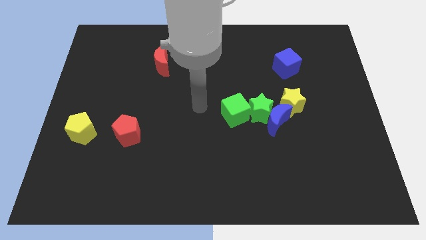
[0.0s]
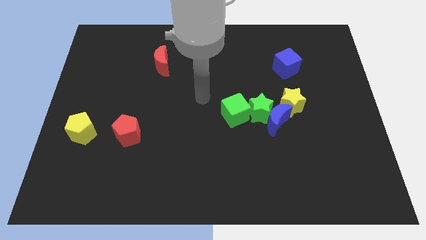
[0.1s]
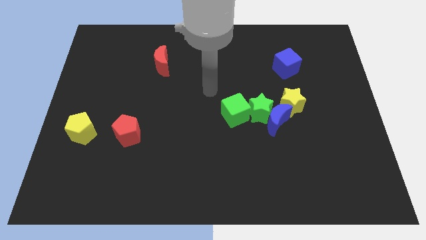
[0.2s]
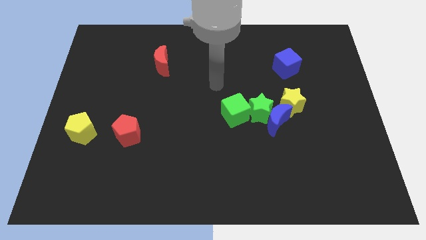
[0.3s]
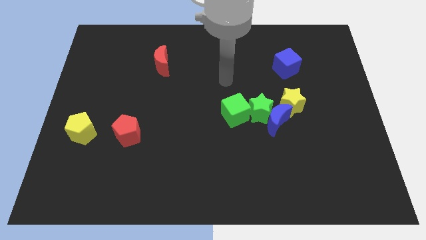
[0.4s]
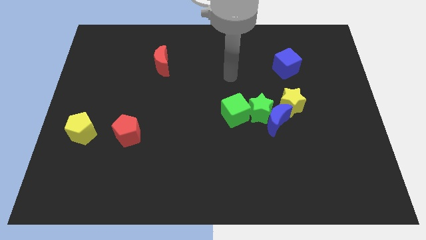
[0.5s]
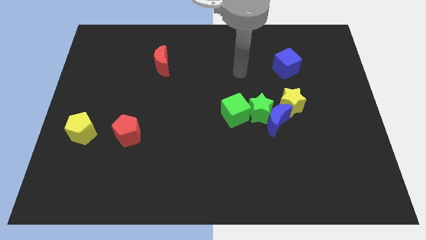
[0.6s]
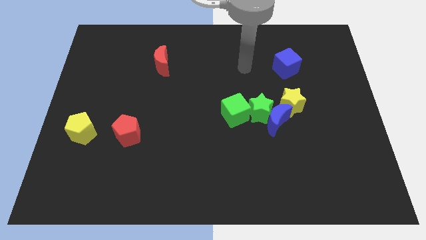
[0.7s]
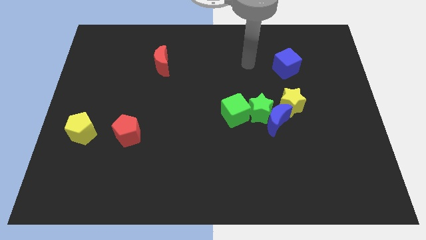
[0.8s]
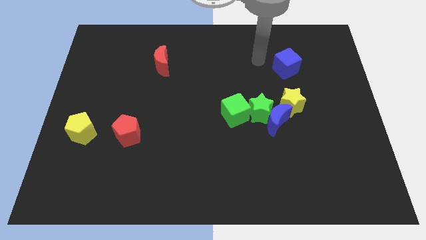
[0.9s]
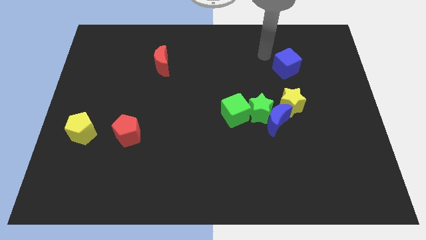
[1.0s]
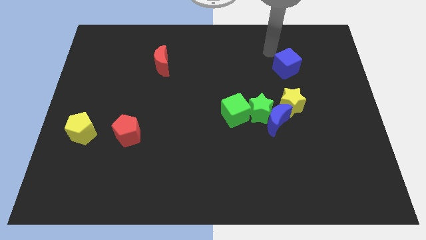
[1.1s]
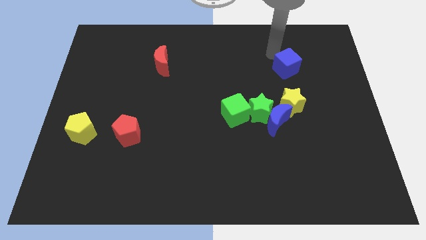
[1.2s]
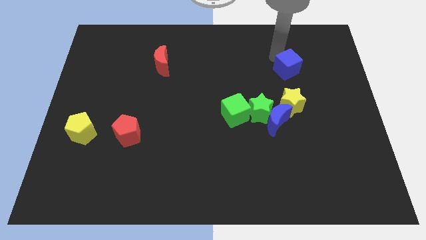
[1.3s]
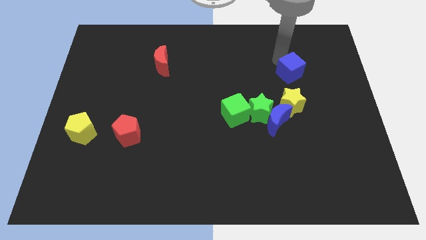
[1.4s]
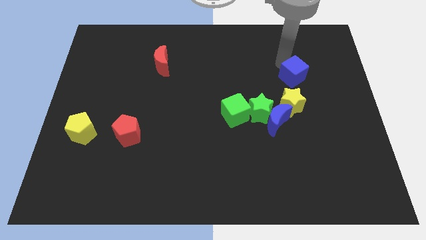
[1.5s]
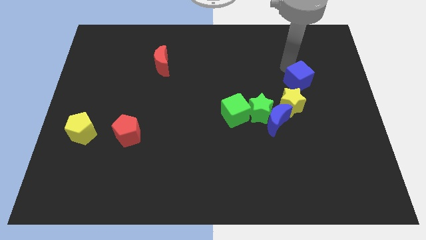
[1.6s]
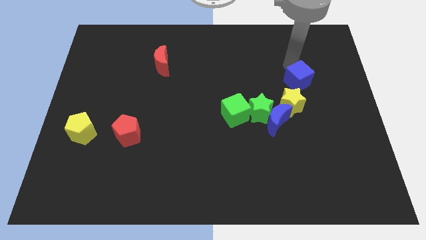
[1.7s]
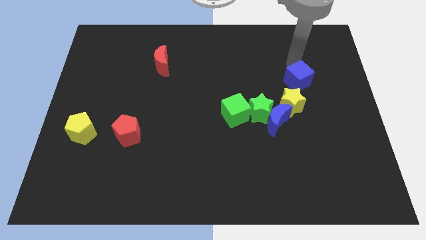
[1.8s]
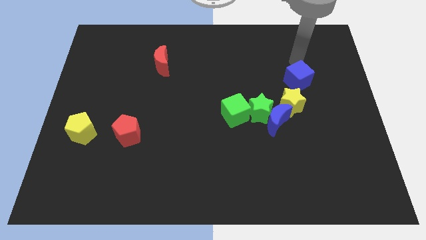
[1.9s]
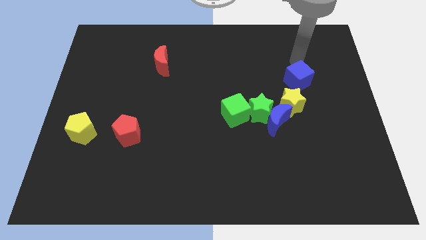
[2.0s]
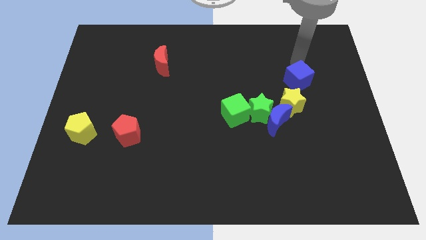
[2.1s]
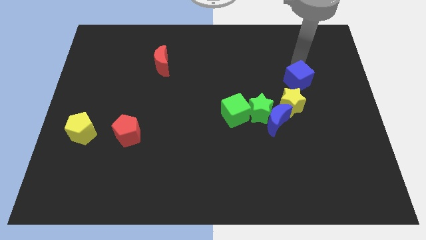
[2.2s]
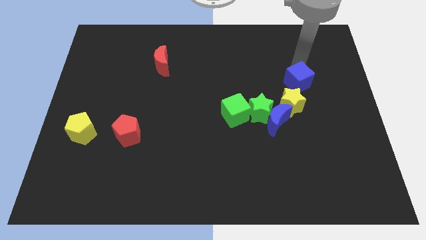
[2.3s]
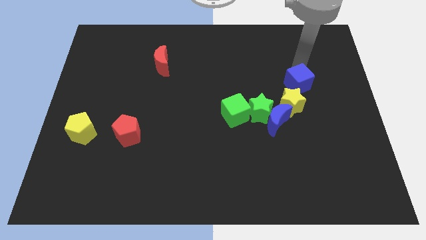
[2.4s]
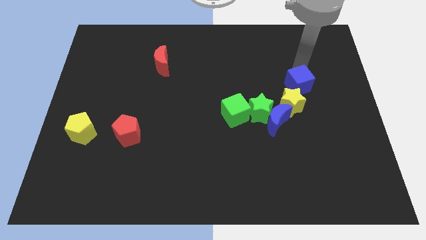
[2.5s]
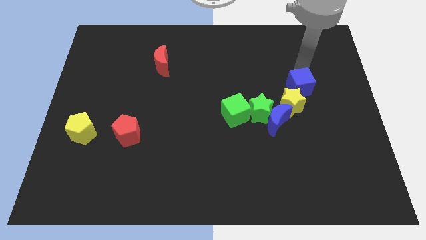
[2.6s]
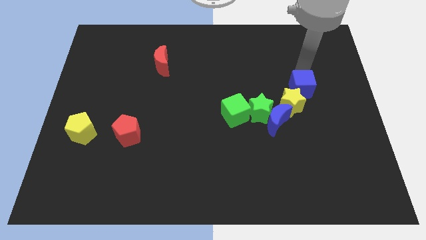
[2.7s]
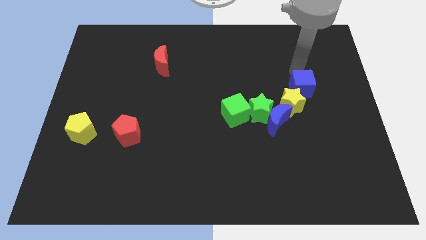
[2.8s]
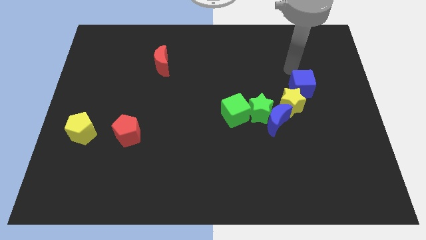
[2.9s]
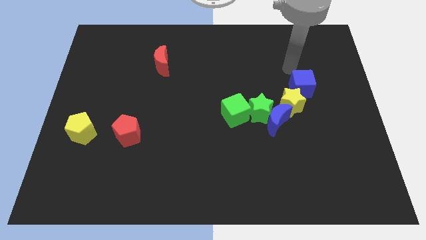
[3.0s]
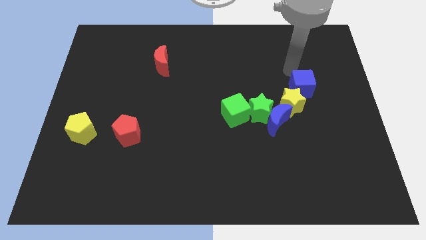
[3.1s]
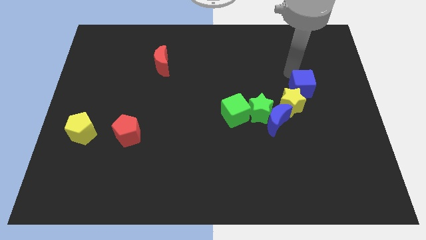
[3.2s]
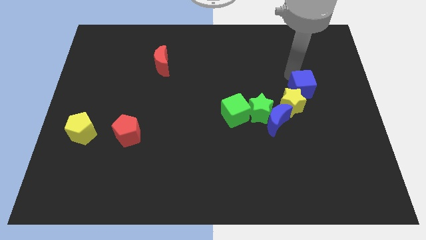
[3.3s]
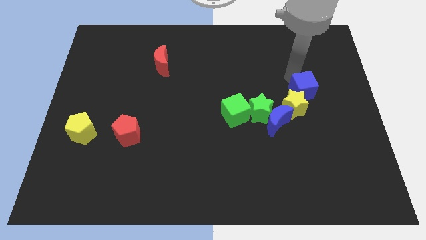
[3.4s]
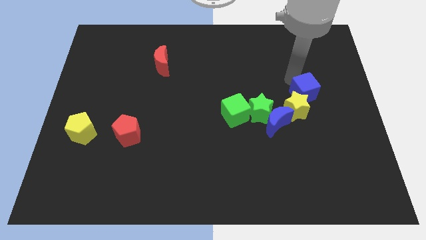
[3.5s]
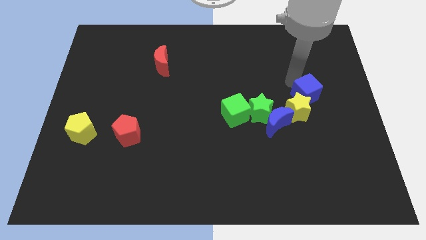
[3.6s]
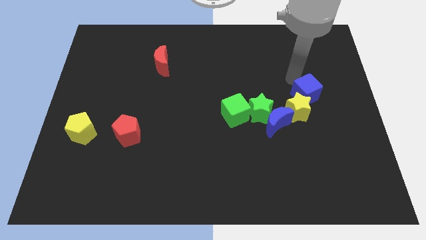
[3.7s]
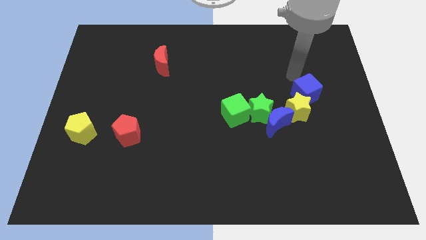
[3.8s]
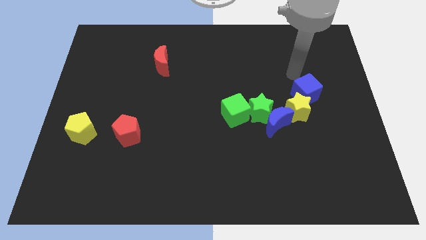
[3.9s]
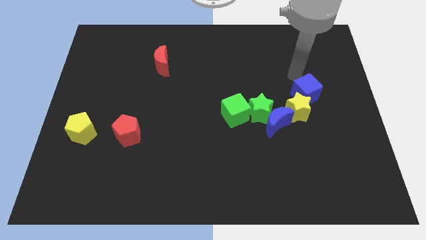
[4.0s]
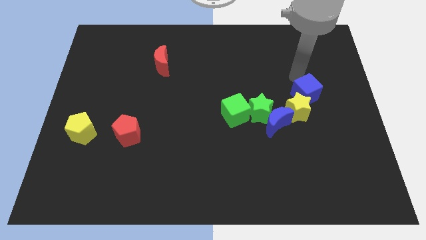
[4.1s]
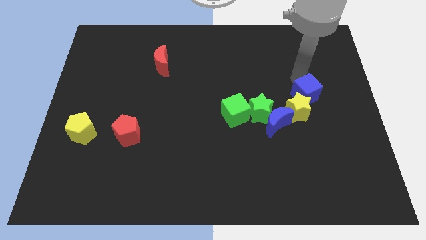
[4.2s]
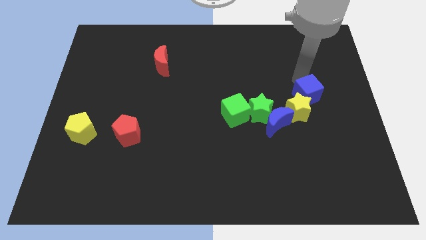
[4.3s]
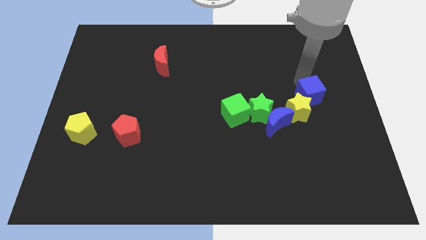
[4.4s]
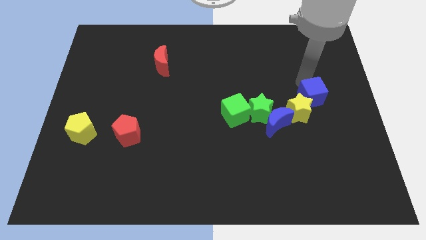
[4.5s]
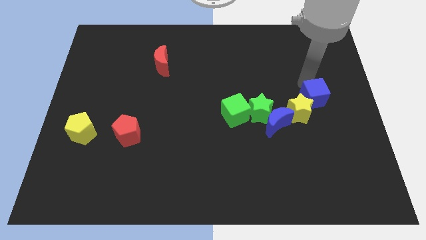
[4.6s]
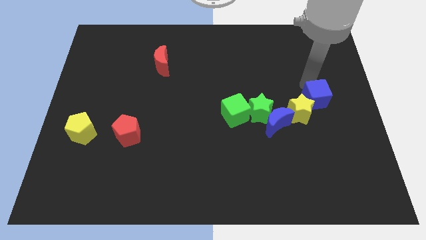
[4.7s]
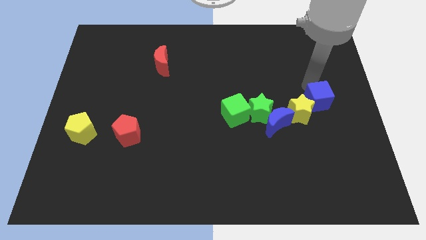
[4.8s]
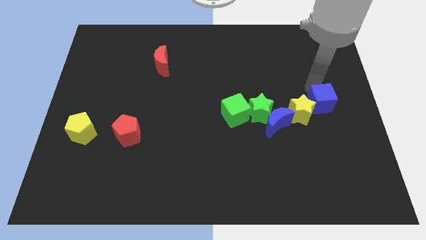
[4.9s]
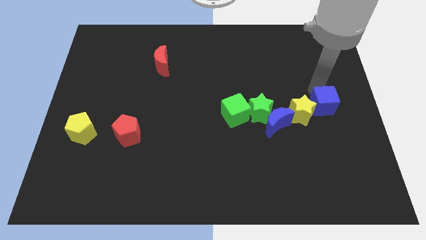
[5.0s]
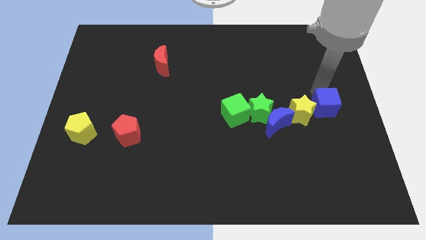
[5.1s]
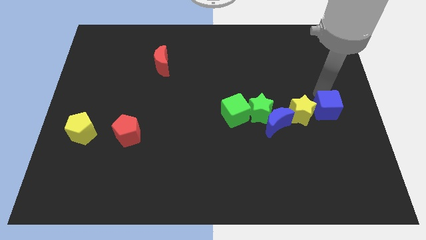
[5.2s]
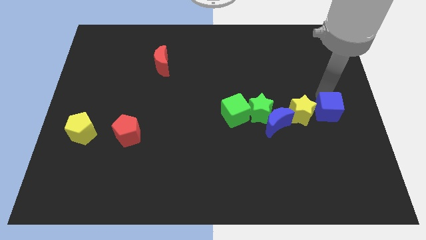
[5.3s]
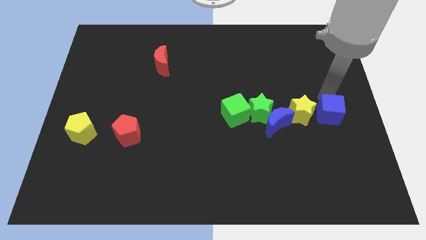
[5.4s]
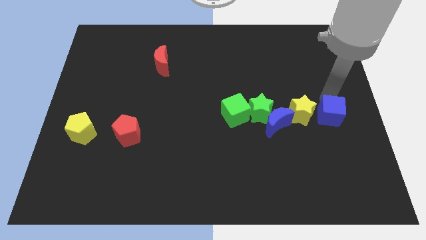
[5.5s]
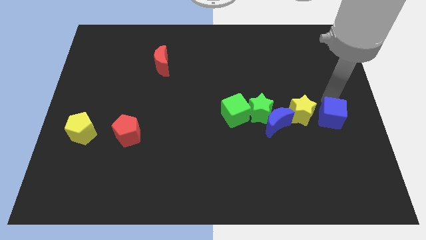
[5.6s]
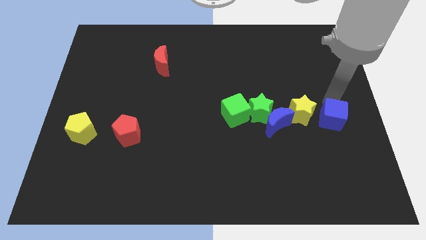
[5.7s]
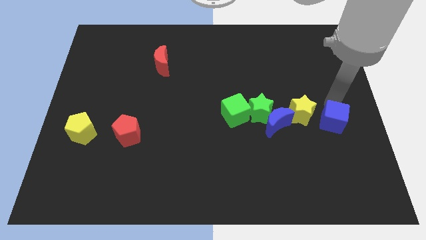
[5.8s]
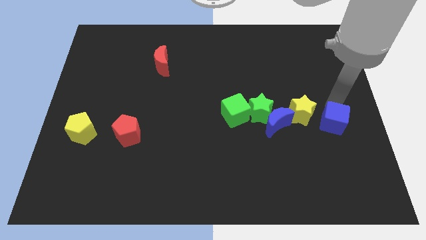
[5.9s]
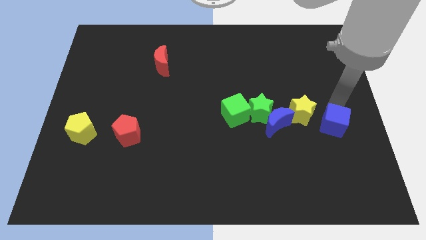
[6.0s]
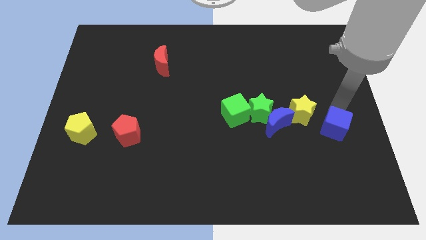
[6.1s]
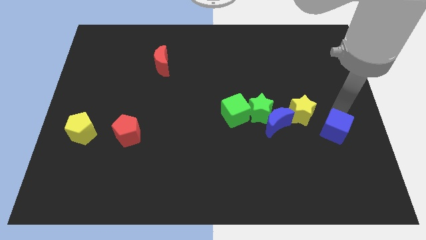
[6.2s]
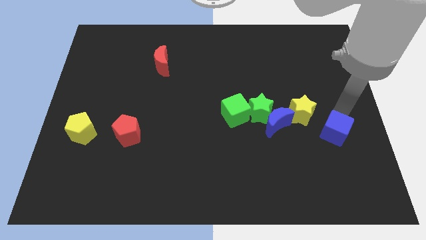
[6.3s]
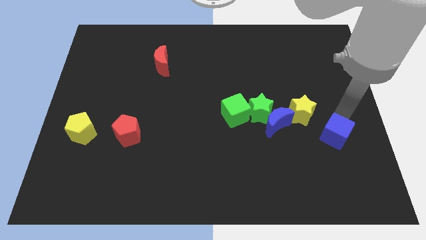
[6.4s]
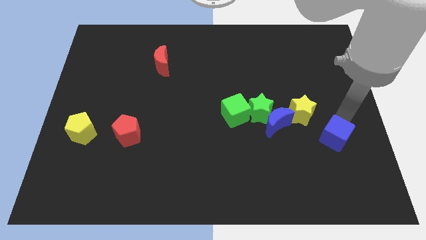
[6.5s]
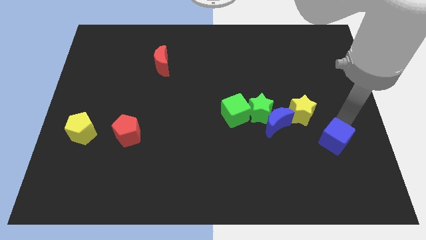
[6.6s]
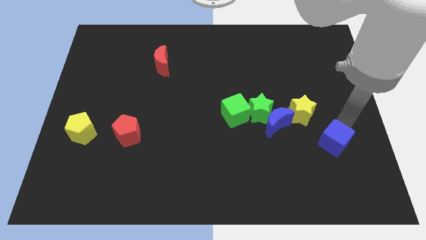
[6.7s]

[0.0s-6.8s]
push the blue cube down

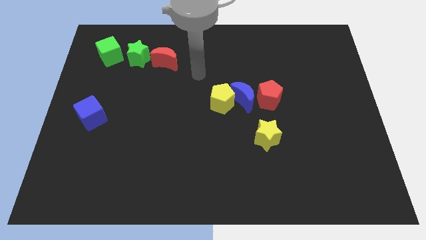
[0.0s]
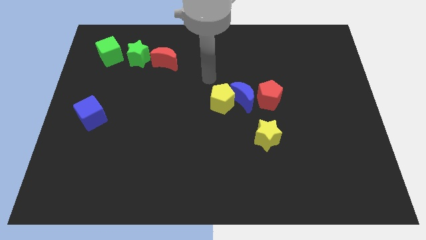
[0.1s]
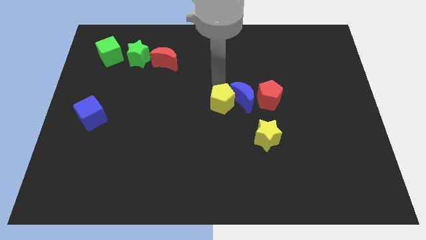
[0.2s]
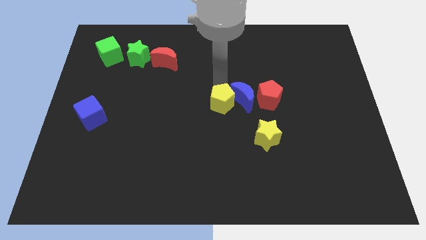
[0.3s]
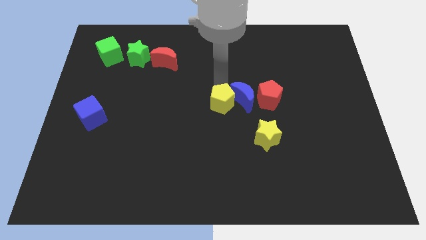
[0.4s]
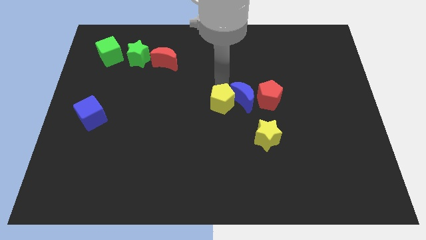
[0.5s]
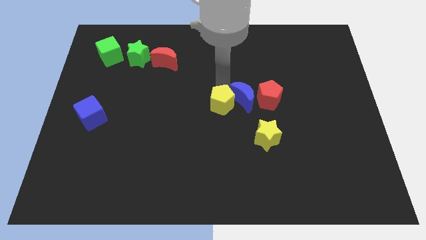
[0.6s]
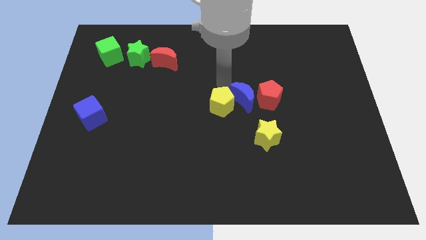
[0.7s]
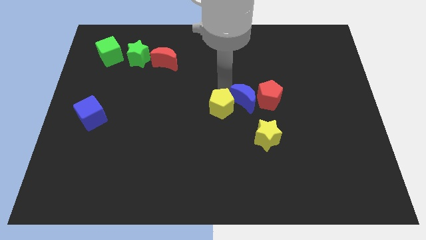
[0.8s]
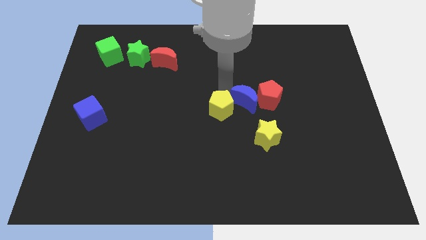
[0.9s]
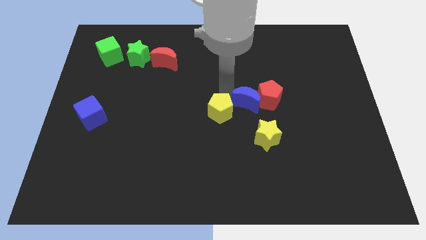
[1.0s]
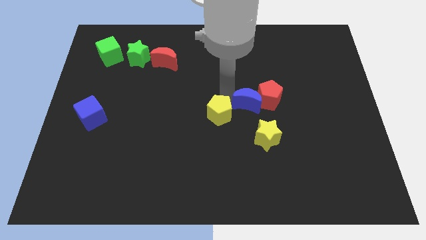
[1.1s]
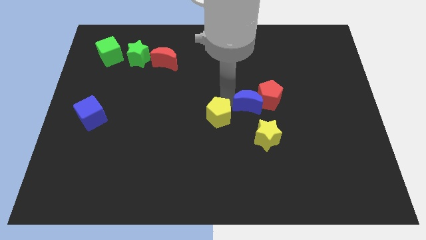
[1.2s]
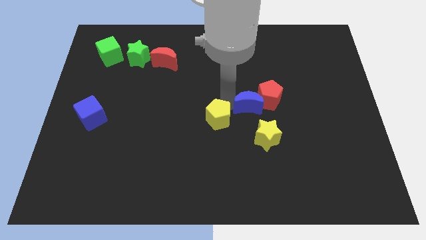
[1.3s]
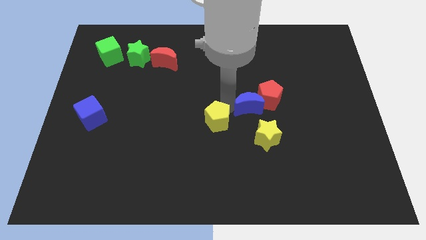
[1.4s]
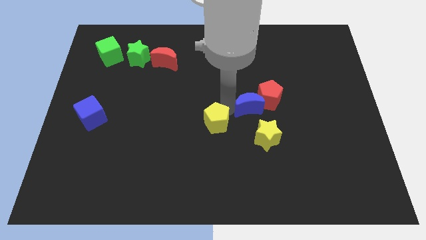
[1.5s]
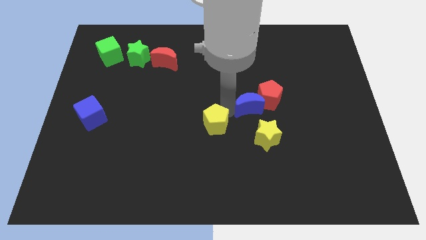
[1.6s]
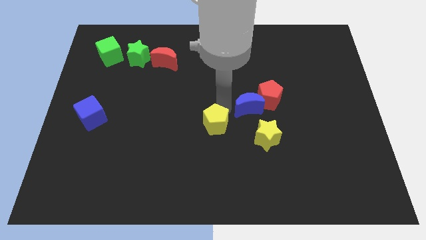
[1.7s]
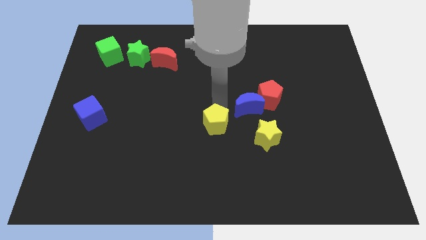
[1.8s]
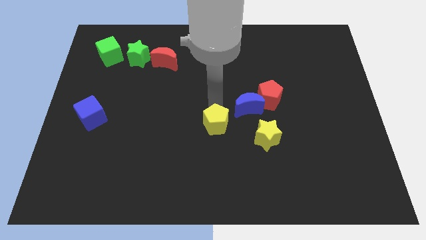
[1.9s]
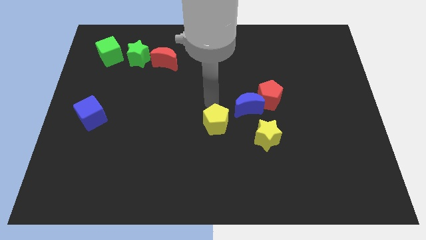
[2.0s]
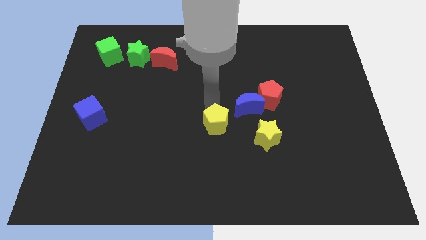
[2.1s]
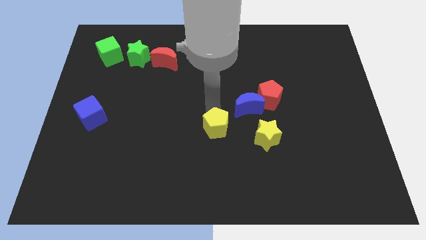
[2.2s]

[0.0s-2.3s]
slide the yellow pentagon downwards somewhat
